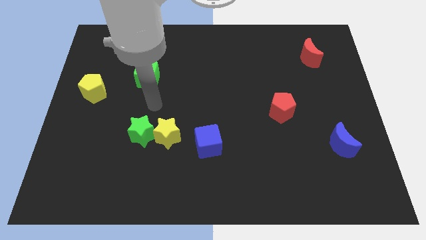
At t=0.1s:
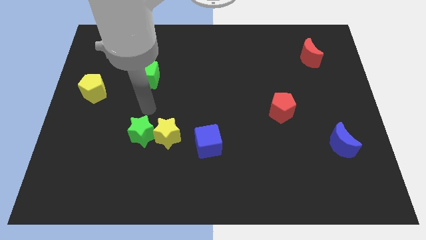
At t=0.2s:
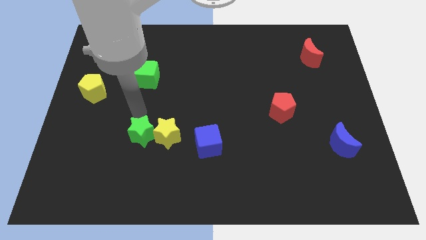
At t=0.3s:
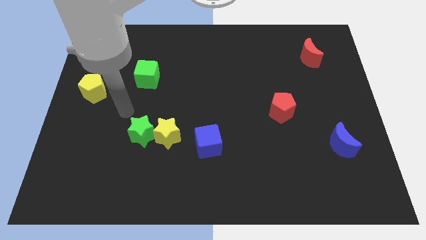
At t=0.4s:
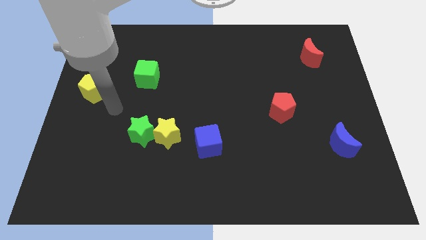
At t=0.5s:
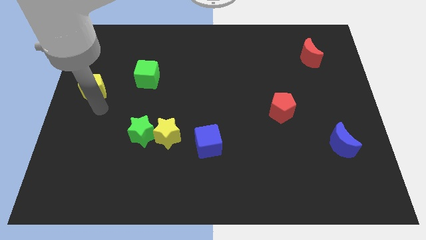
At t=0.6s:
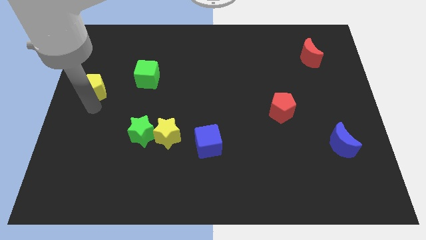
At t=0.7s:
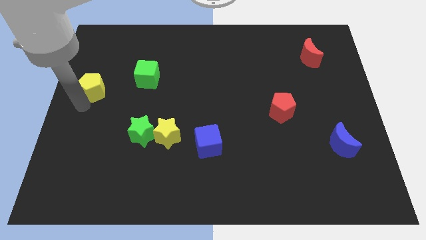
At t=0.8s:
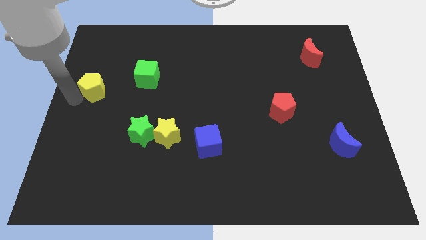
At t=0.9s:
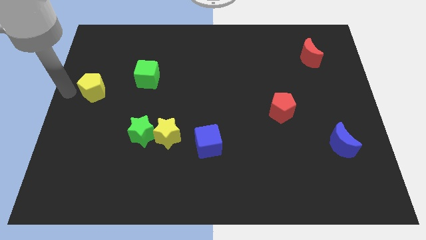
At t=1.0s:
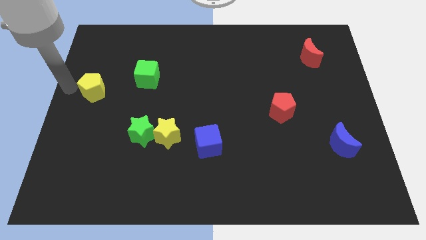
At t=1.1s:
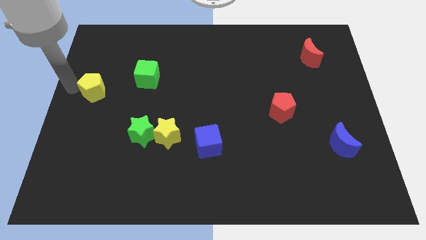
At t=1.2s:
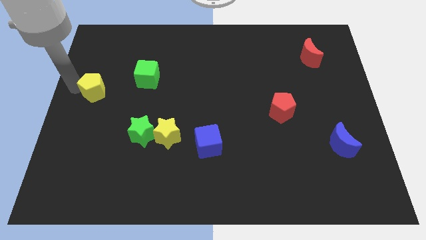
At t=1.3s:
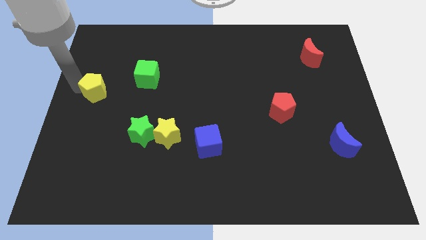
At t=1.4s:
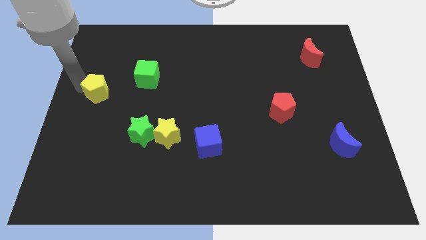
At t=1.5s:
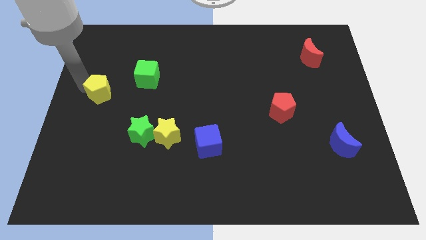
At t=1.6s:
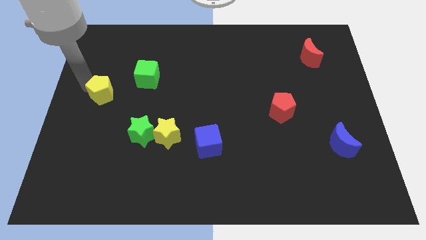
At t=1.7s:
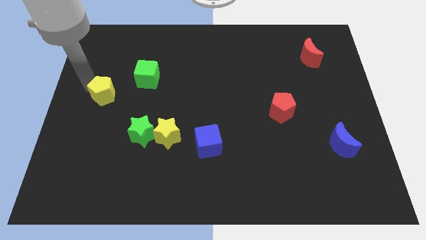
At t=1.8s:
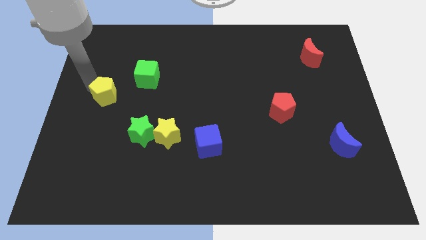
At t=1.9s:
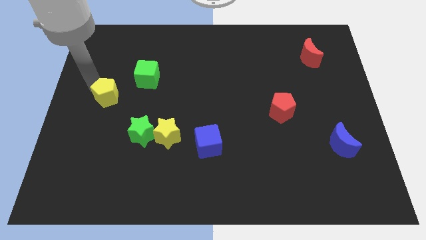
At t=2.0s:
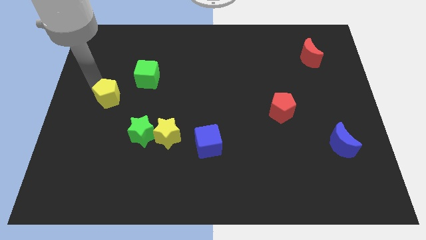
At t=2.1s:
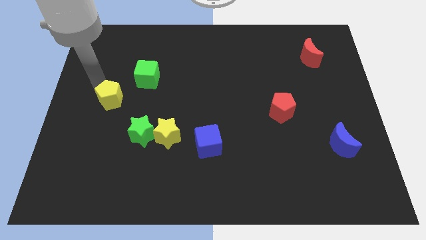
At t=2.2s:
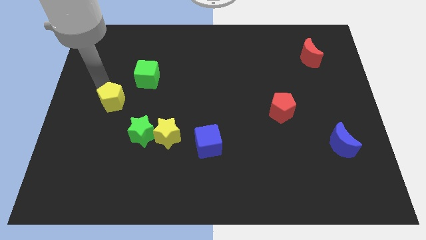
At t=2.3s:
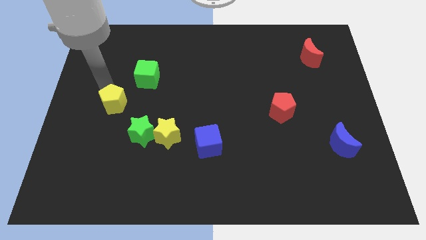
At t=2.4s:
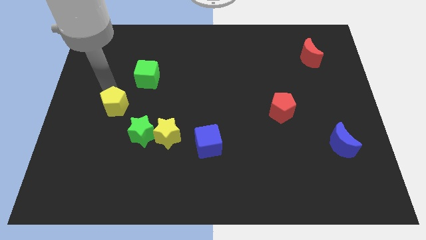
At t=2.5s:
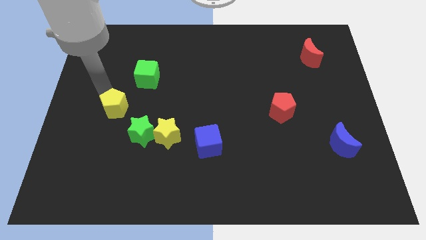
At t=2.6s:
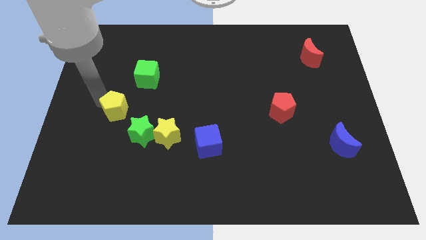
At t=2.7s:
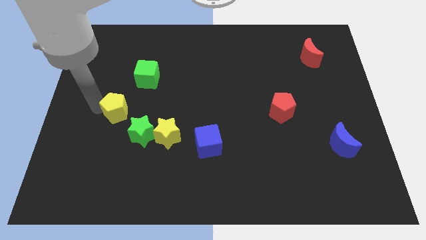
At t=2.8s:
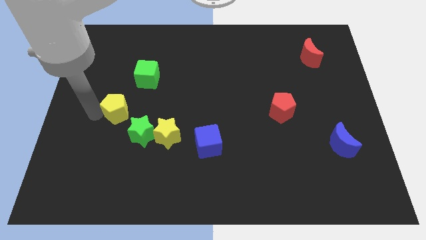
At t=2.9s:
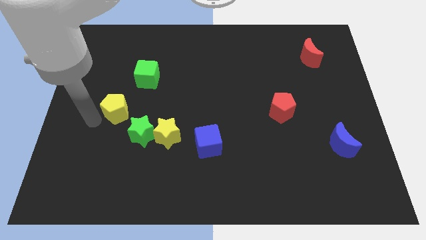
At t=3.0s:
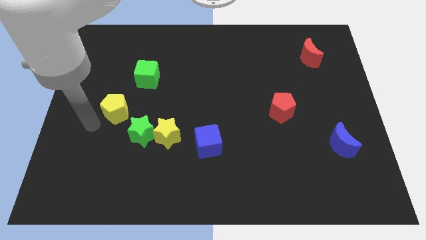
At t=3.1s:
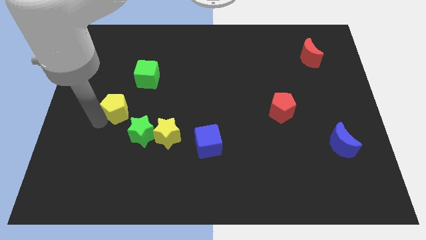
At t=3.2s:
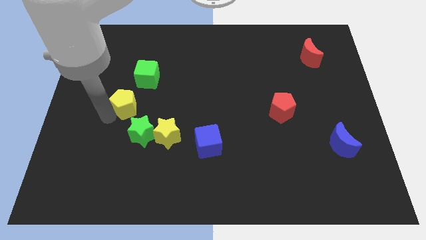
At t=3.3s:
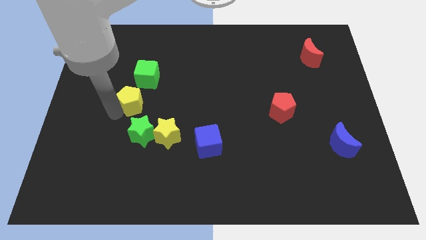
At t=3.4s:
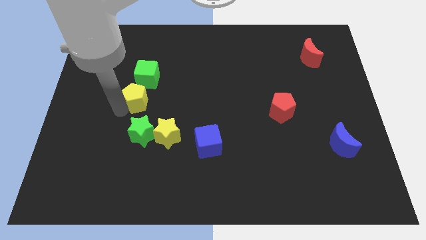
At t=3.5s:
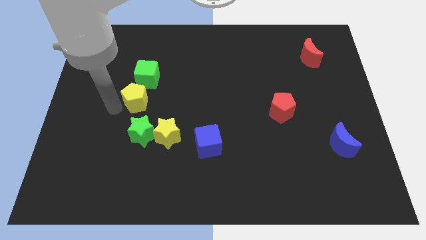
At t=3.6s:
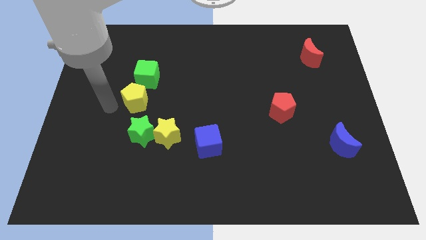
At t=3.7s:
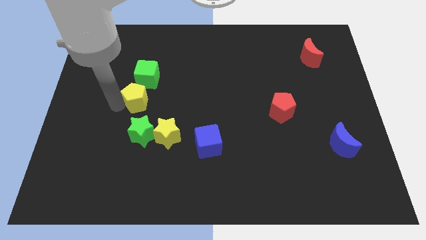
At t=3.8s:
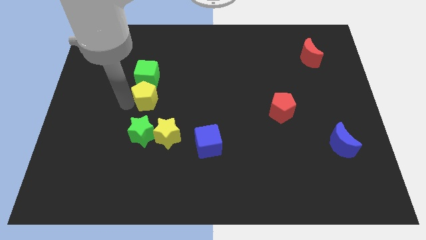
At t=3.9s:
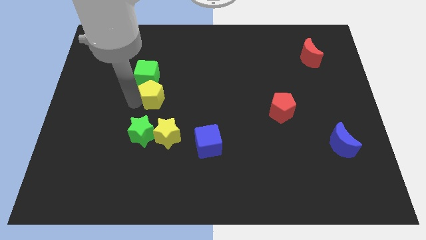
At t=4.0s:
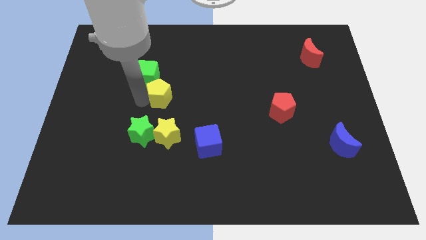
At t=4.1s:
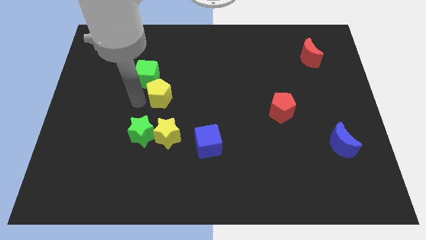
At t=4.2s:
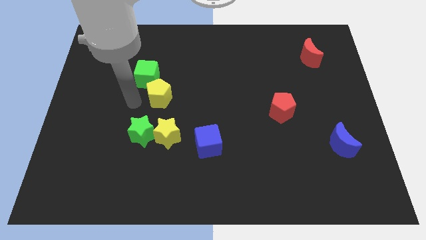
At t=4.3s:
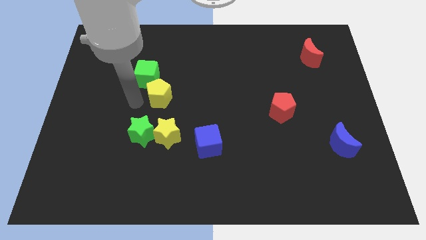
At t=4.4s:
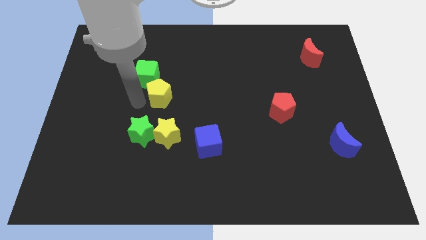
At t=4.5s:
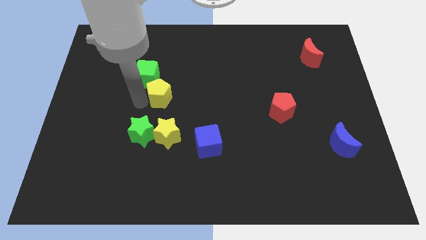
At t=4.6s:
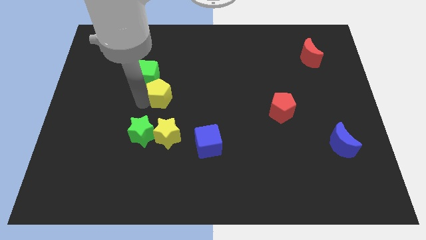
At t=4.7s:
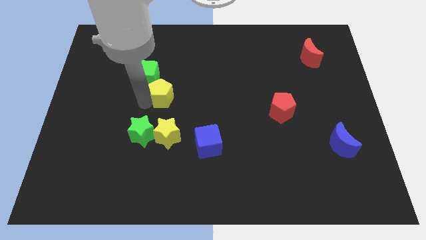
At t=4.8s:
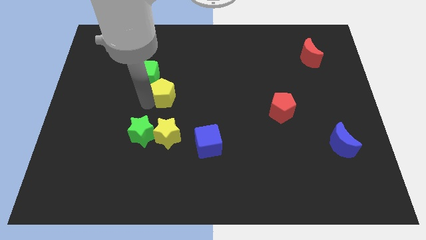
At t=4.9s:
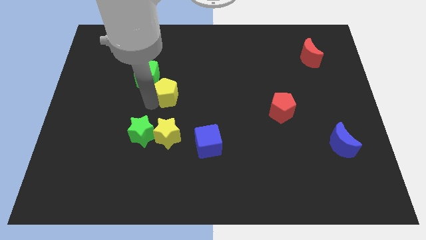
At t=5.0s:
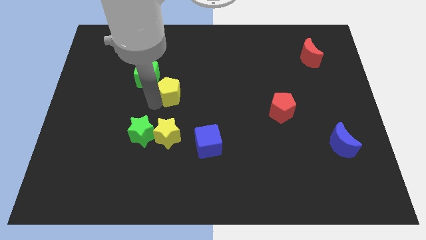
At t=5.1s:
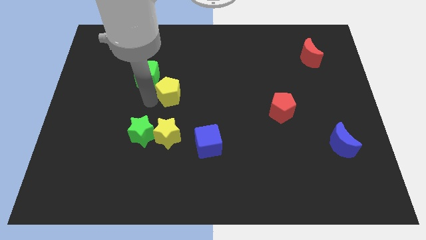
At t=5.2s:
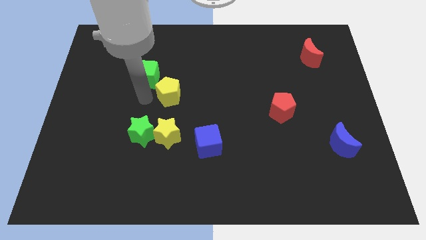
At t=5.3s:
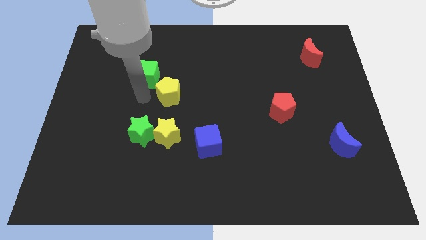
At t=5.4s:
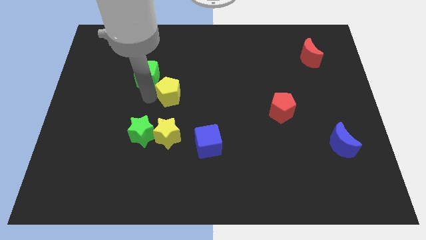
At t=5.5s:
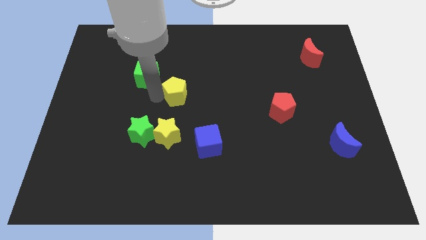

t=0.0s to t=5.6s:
slide the yellow pentagon right

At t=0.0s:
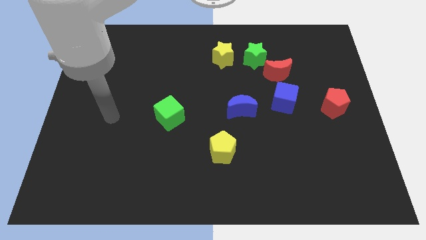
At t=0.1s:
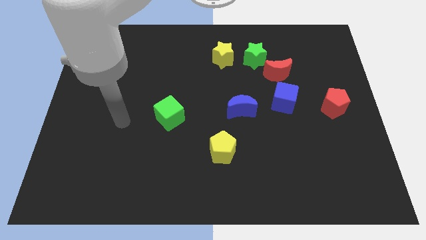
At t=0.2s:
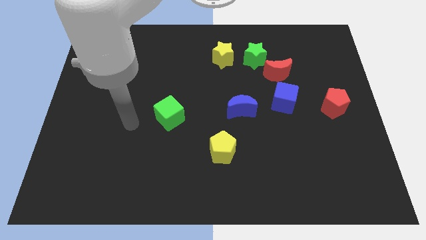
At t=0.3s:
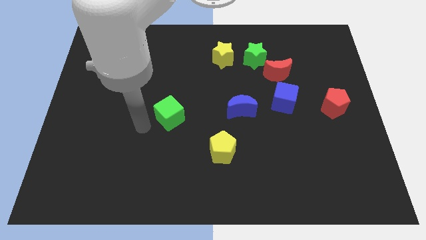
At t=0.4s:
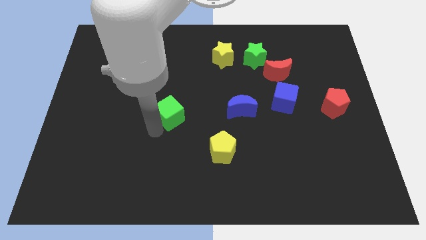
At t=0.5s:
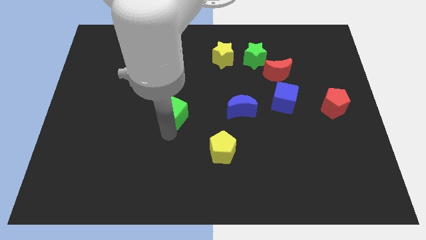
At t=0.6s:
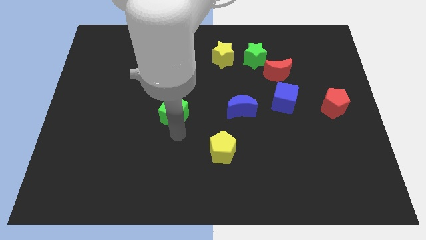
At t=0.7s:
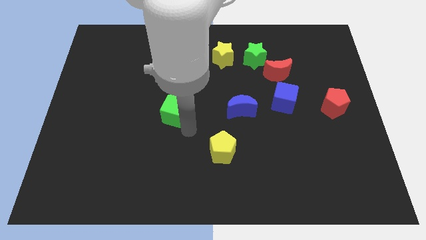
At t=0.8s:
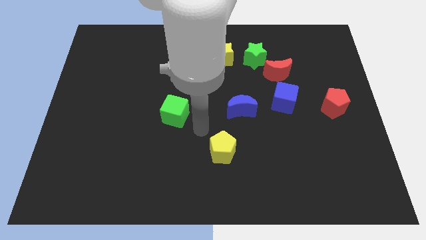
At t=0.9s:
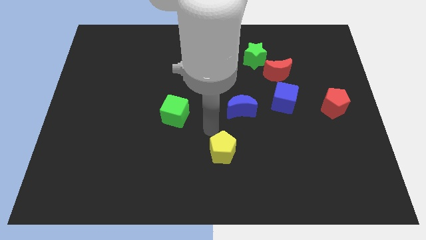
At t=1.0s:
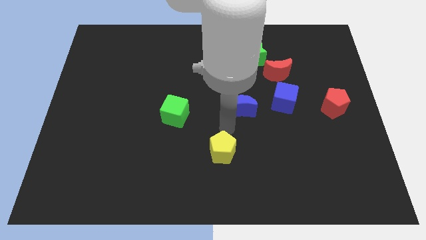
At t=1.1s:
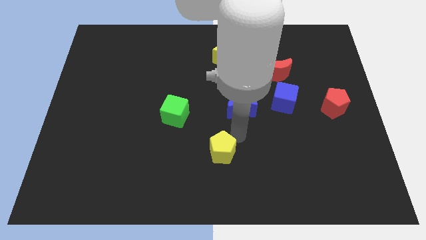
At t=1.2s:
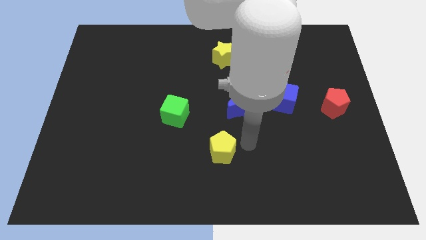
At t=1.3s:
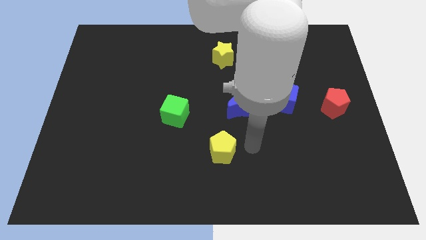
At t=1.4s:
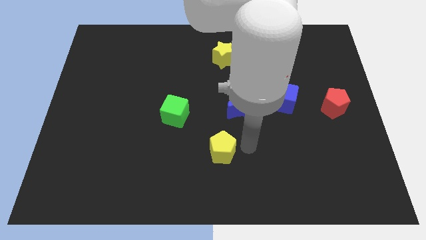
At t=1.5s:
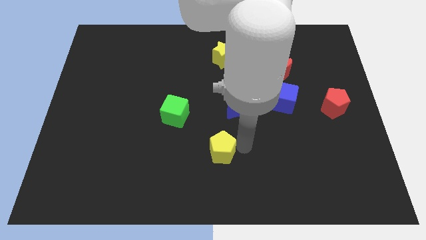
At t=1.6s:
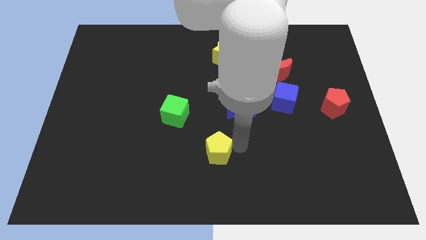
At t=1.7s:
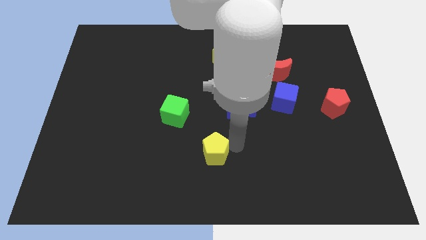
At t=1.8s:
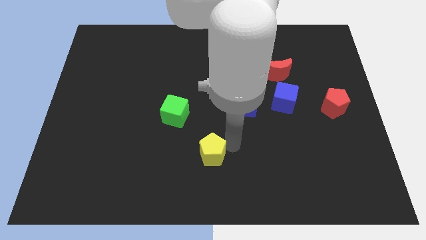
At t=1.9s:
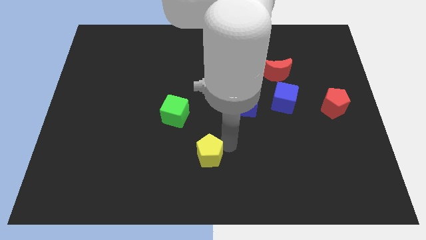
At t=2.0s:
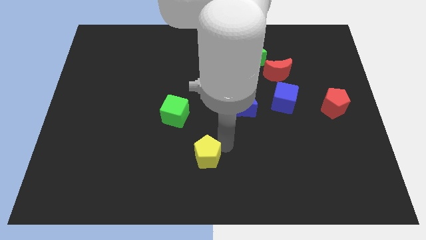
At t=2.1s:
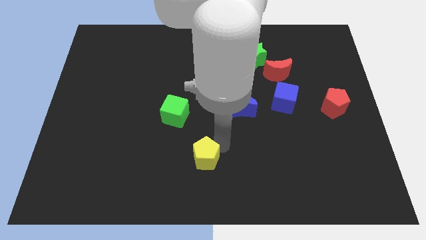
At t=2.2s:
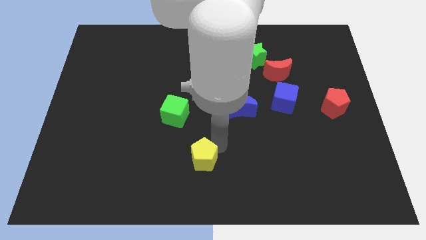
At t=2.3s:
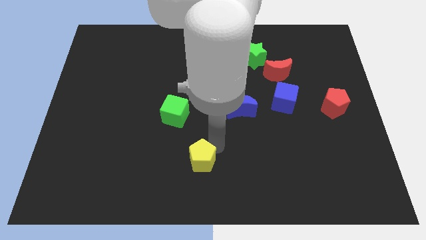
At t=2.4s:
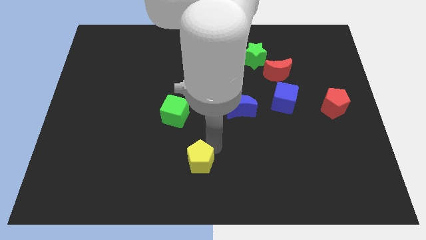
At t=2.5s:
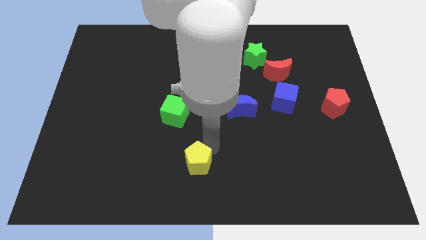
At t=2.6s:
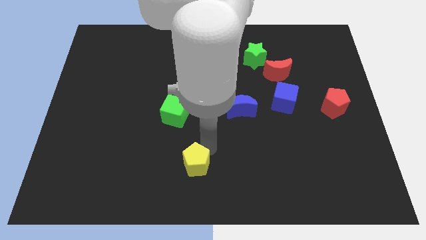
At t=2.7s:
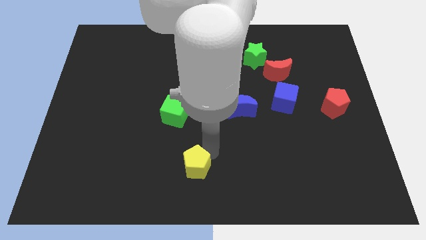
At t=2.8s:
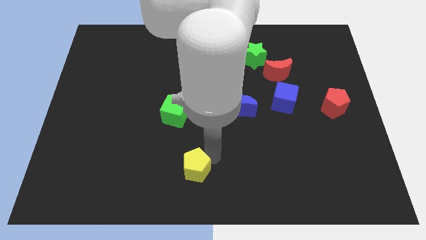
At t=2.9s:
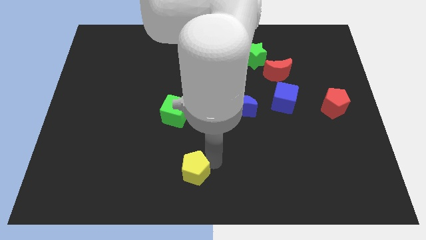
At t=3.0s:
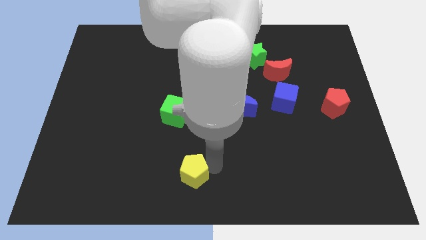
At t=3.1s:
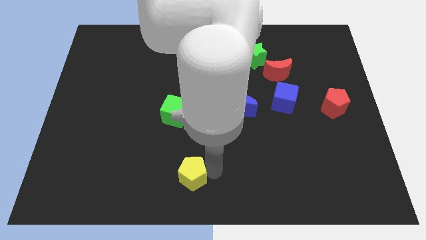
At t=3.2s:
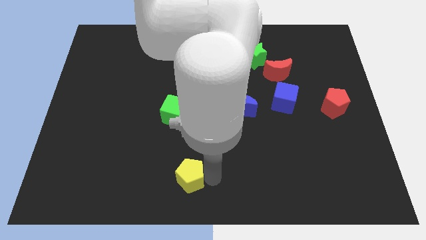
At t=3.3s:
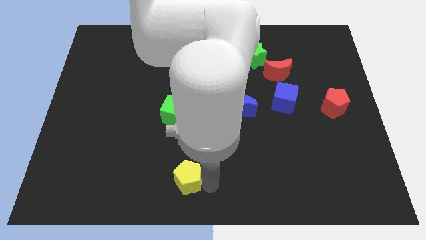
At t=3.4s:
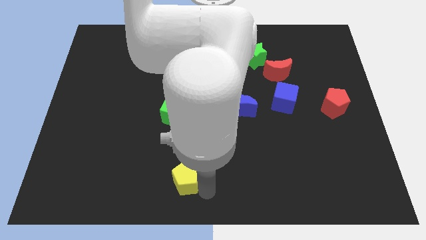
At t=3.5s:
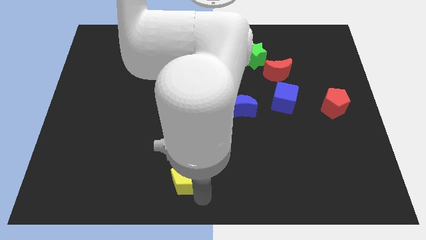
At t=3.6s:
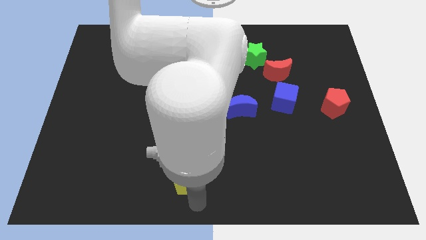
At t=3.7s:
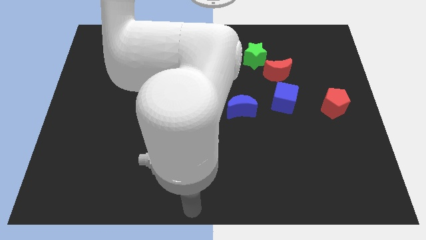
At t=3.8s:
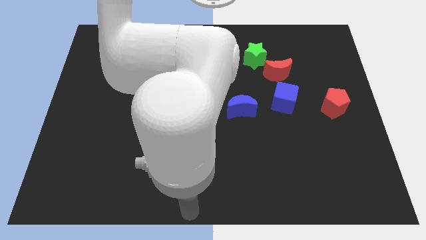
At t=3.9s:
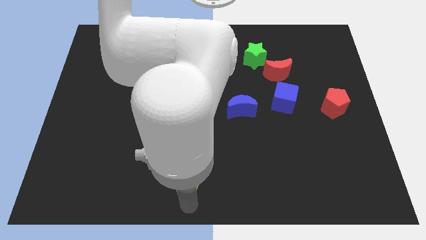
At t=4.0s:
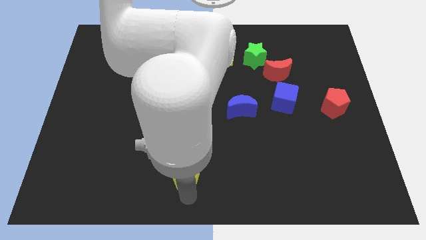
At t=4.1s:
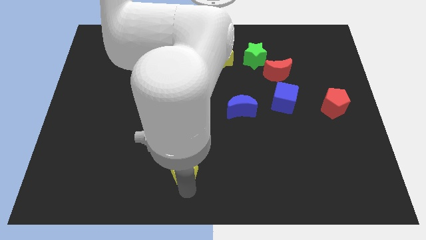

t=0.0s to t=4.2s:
slightly push the yellow pentagon to the left
